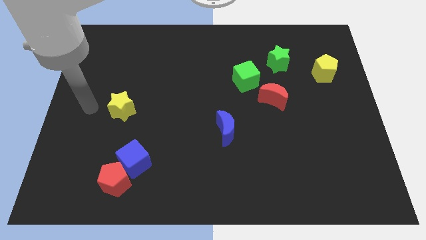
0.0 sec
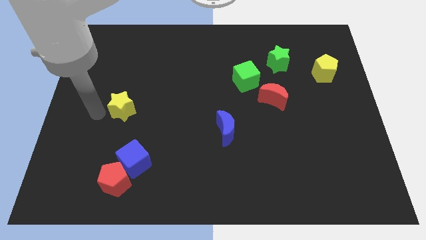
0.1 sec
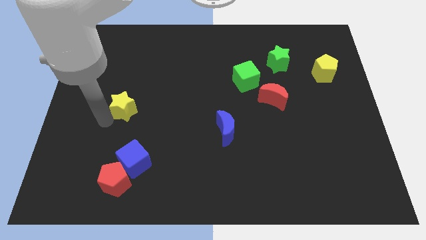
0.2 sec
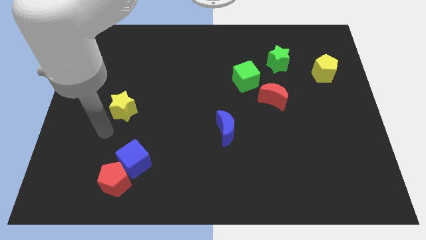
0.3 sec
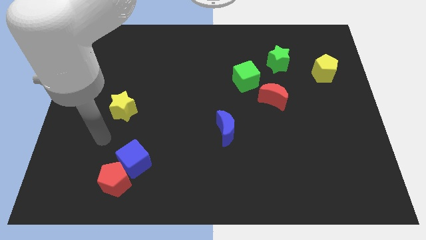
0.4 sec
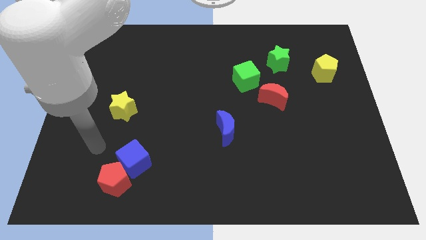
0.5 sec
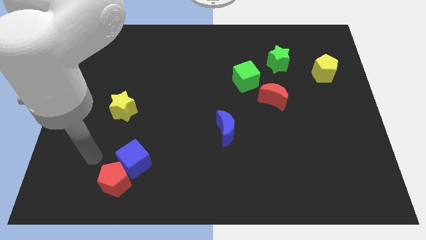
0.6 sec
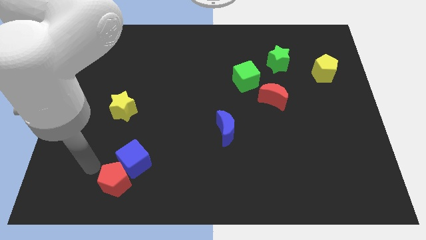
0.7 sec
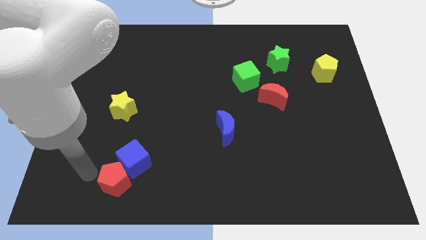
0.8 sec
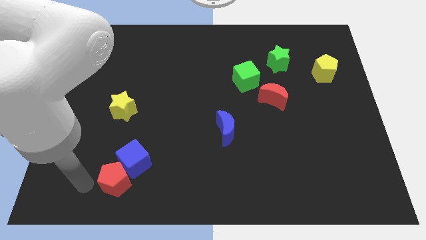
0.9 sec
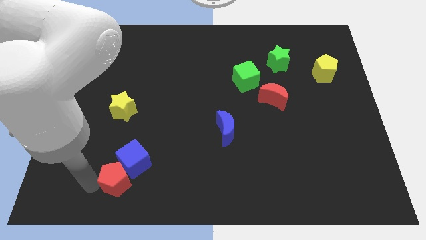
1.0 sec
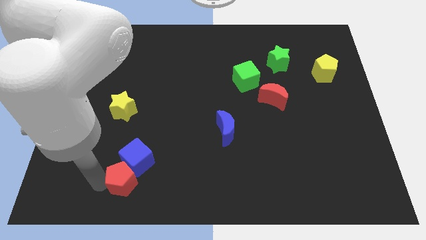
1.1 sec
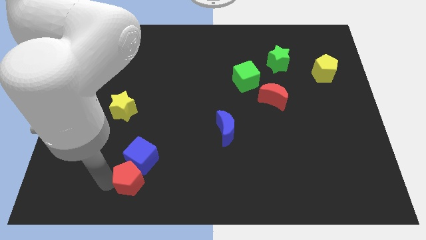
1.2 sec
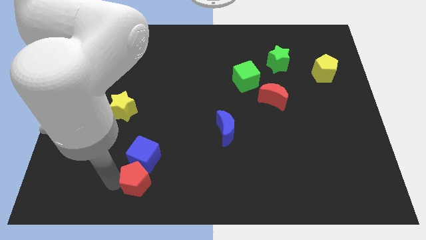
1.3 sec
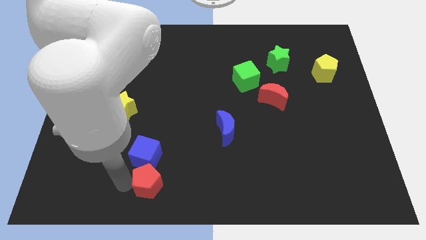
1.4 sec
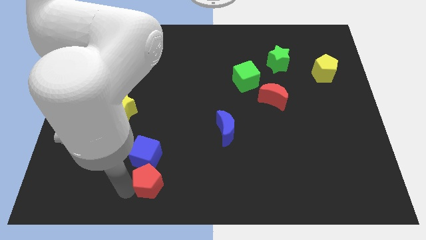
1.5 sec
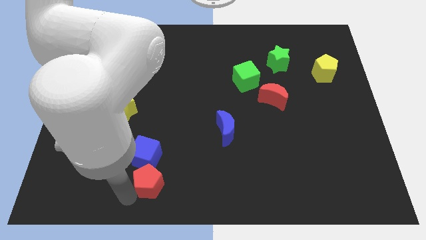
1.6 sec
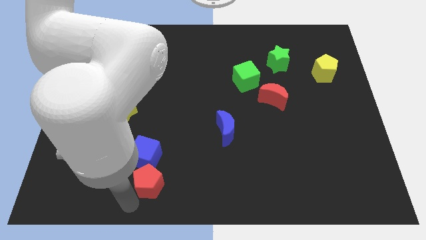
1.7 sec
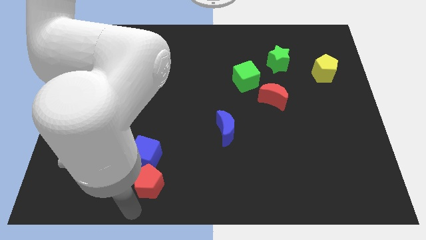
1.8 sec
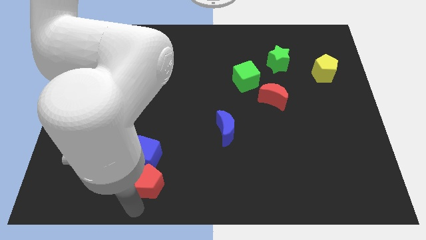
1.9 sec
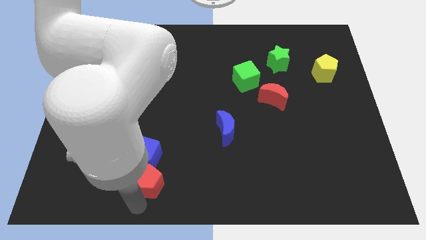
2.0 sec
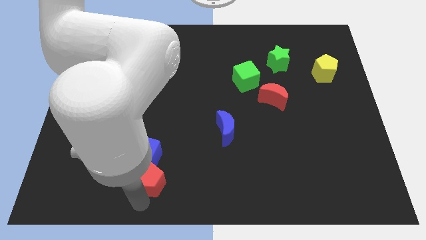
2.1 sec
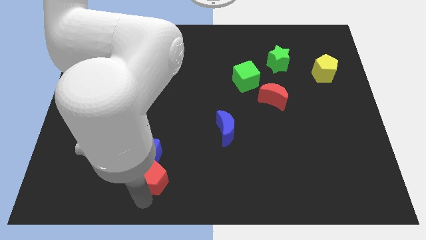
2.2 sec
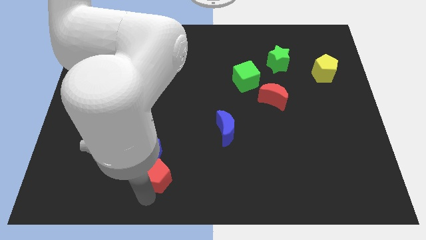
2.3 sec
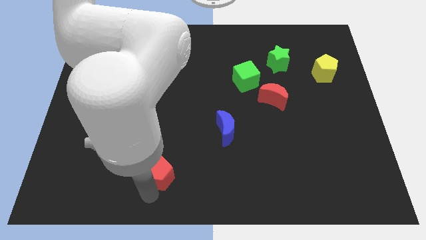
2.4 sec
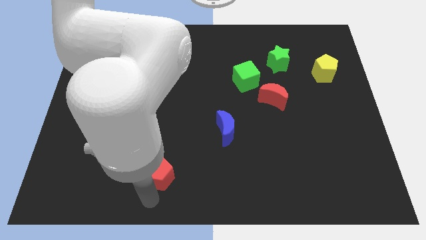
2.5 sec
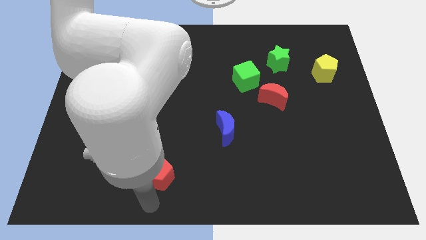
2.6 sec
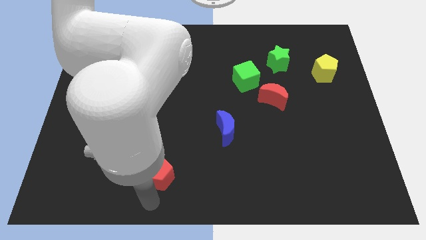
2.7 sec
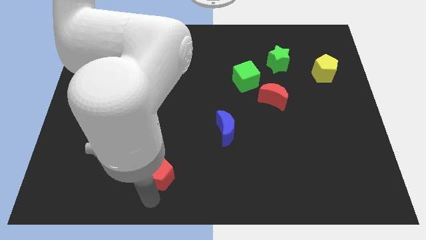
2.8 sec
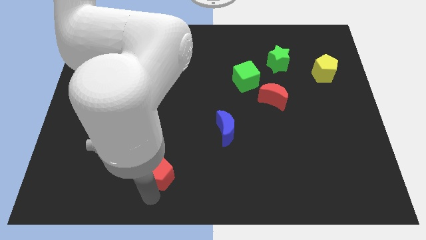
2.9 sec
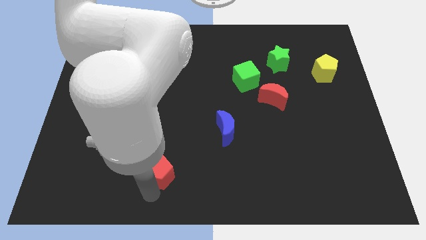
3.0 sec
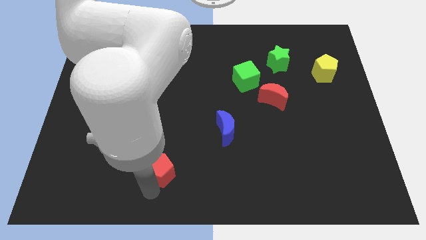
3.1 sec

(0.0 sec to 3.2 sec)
slightly move the red pentagon up and then right

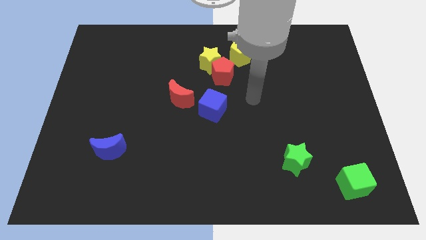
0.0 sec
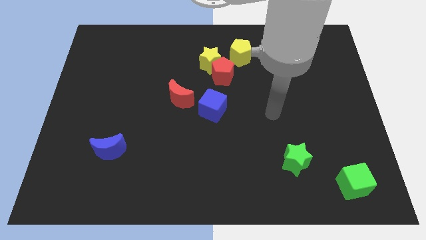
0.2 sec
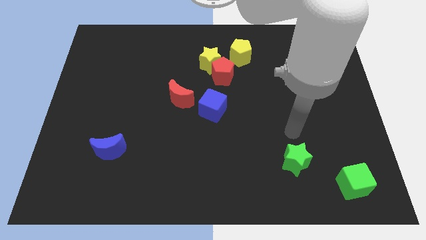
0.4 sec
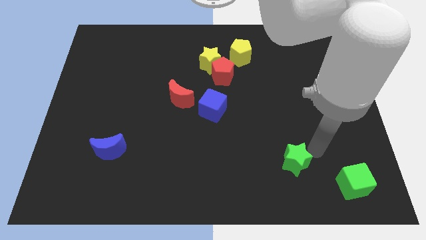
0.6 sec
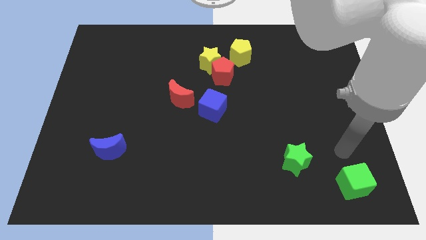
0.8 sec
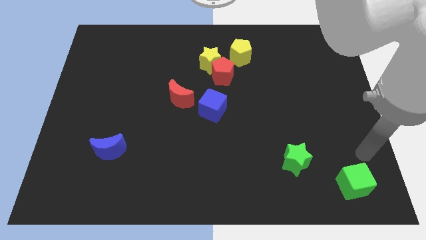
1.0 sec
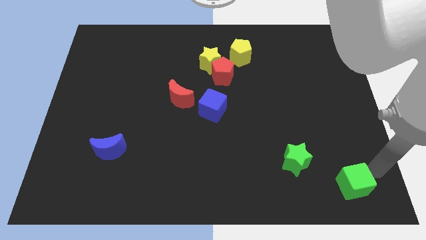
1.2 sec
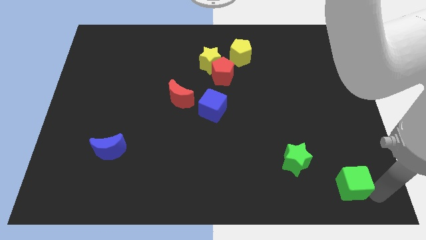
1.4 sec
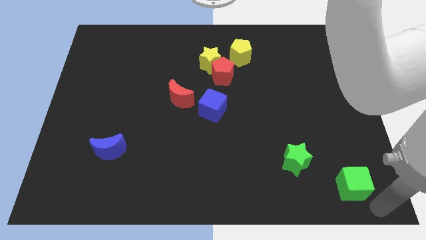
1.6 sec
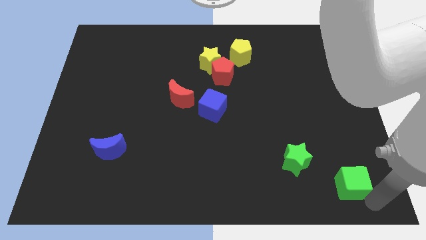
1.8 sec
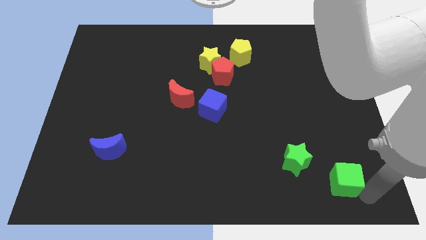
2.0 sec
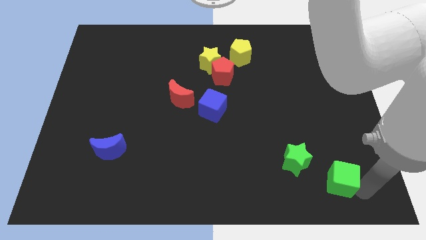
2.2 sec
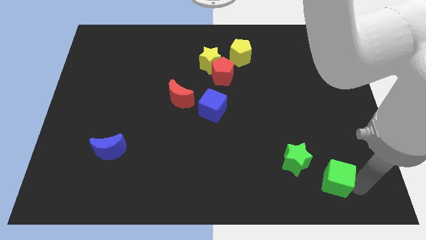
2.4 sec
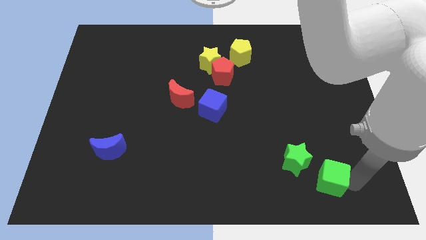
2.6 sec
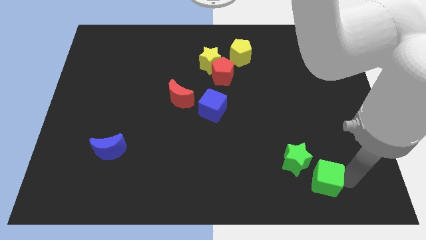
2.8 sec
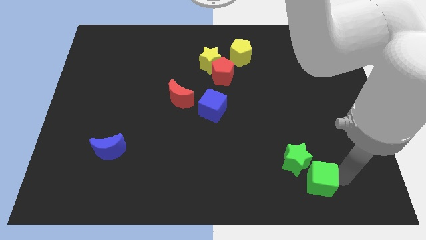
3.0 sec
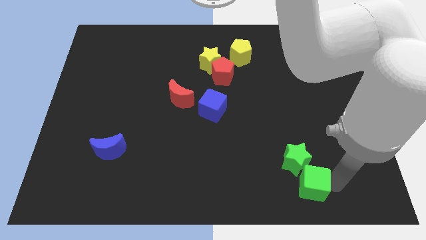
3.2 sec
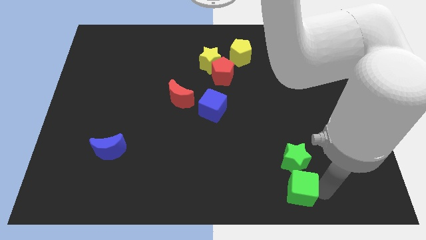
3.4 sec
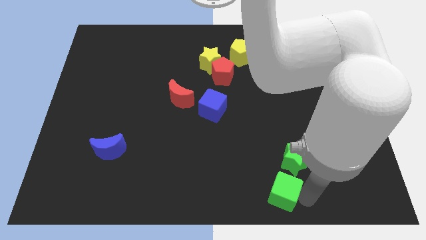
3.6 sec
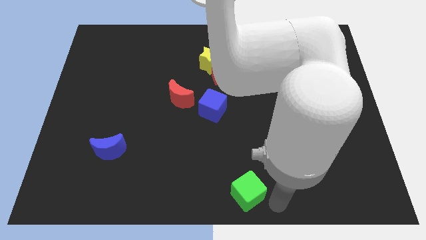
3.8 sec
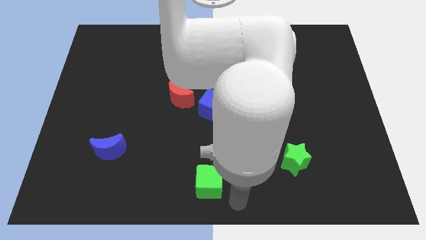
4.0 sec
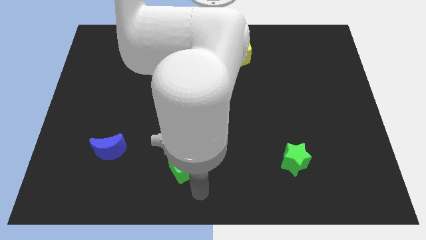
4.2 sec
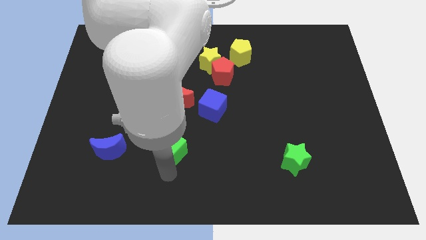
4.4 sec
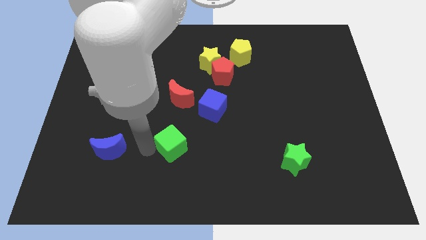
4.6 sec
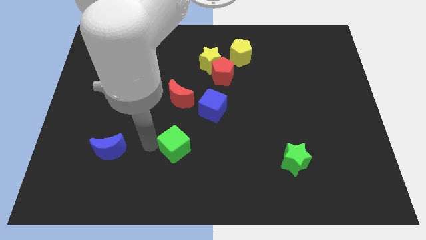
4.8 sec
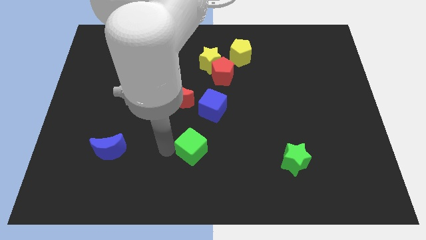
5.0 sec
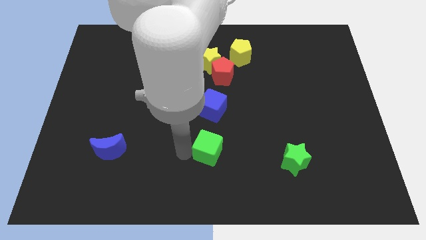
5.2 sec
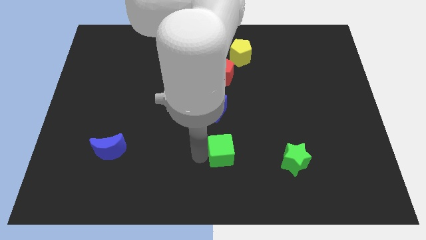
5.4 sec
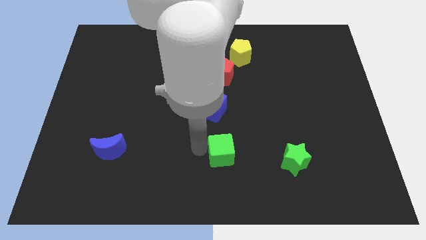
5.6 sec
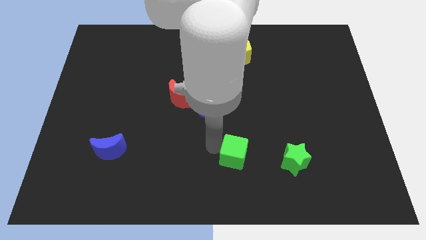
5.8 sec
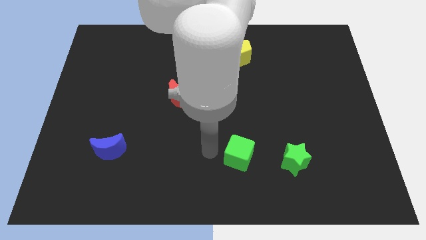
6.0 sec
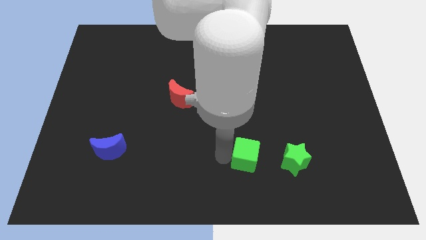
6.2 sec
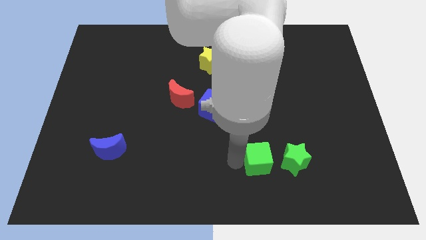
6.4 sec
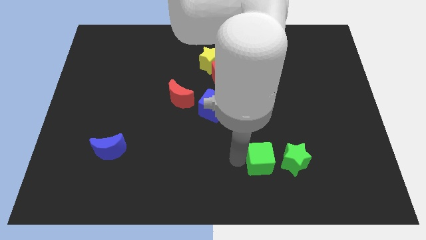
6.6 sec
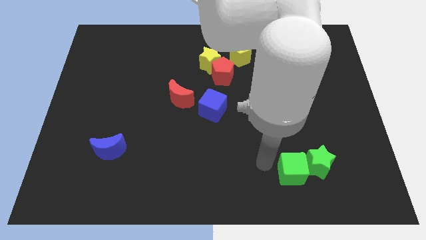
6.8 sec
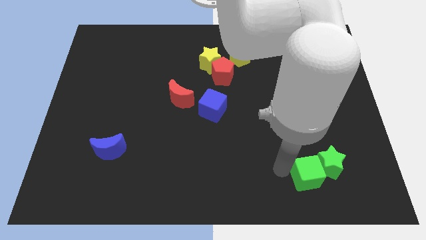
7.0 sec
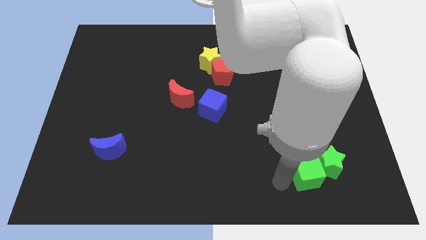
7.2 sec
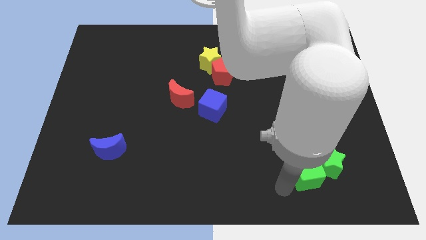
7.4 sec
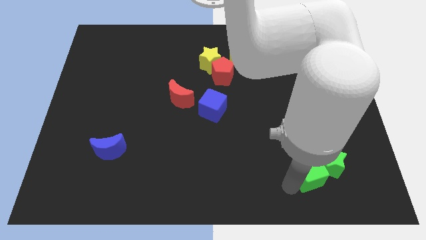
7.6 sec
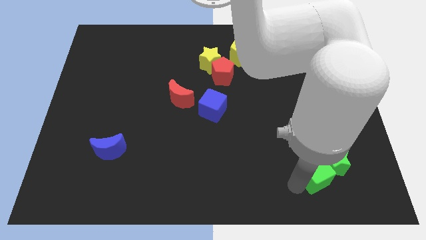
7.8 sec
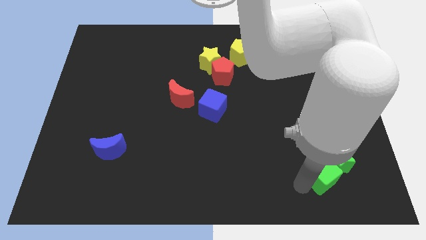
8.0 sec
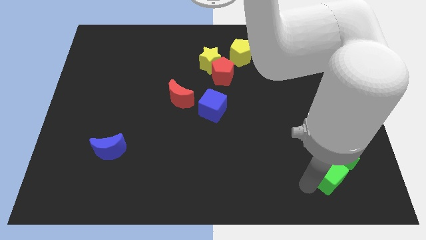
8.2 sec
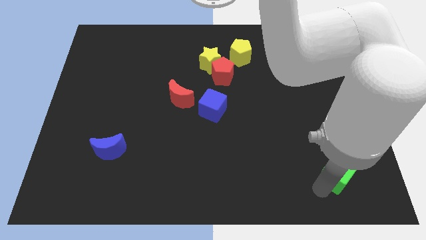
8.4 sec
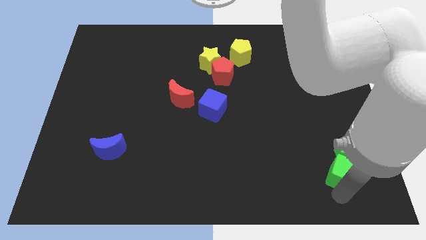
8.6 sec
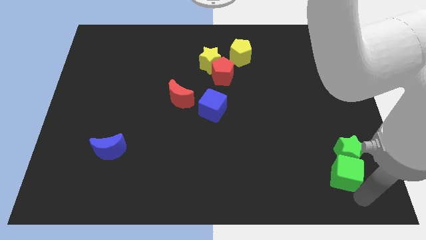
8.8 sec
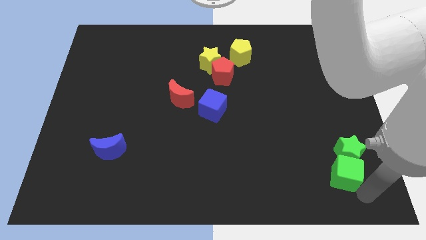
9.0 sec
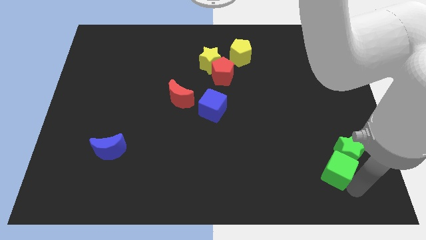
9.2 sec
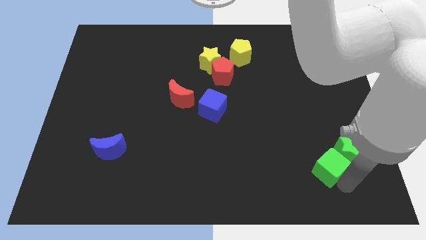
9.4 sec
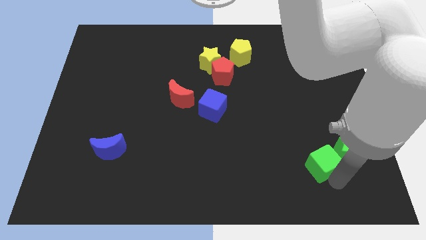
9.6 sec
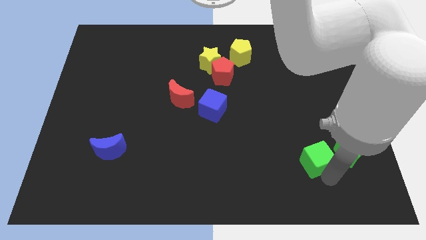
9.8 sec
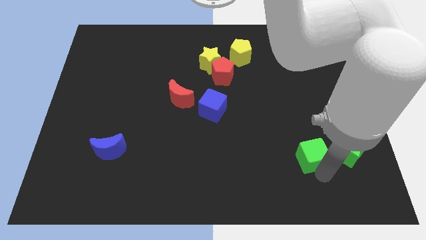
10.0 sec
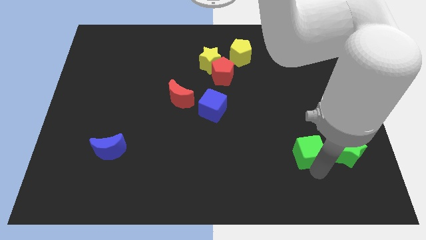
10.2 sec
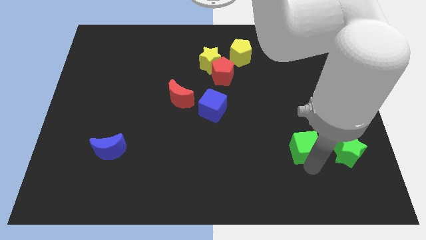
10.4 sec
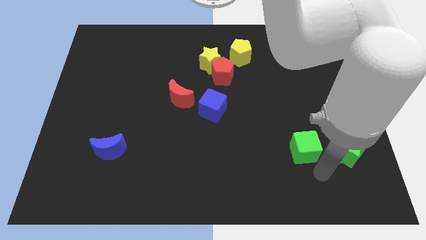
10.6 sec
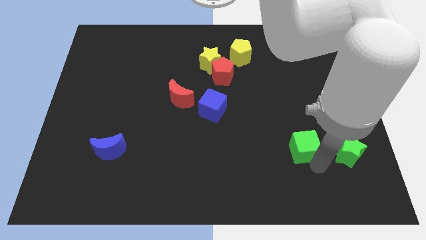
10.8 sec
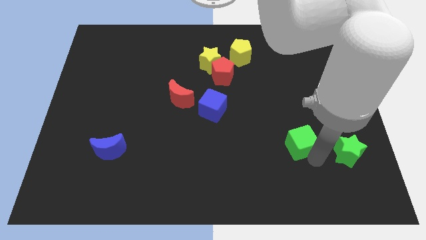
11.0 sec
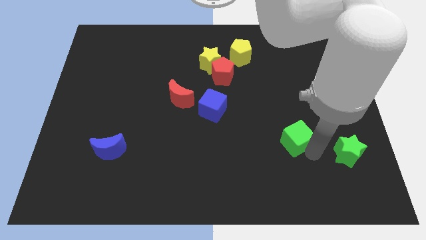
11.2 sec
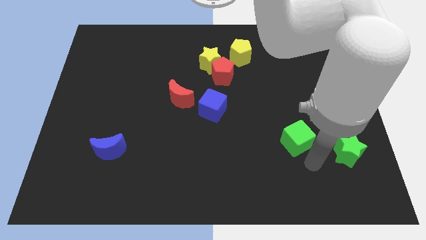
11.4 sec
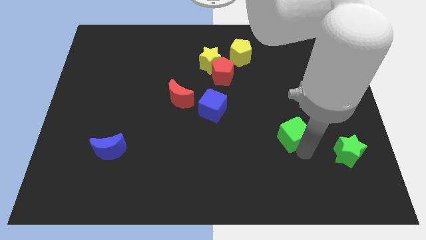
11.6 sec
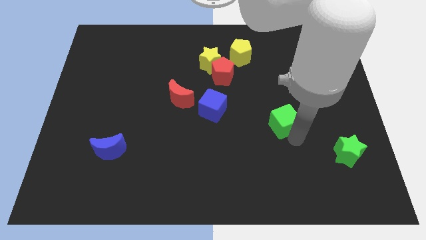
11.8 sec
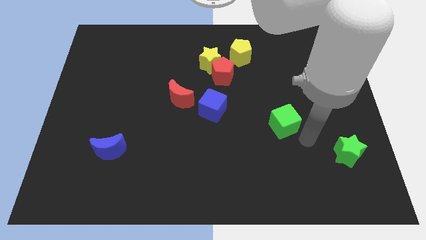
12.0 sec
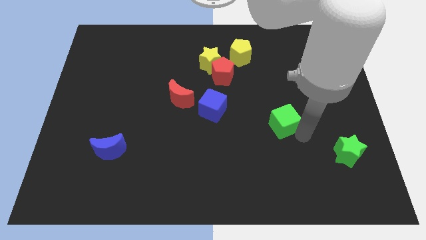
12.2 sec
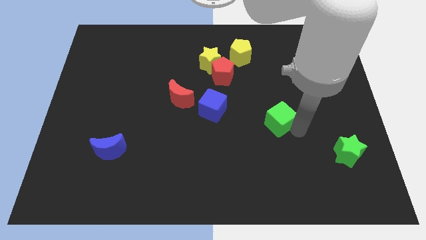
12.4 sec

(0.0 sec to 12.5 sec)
slide the green cube up and then to the left
